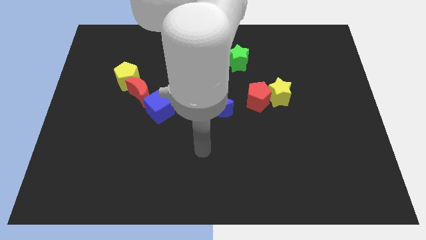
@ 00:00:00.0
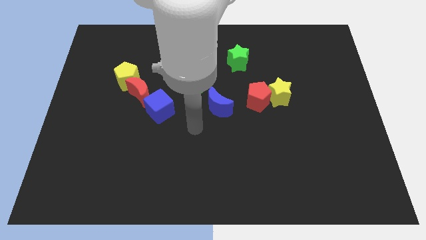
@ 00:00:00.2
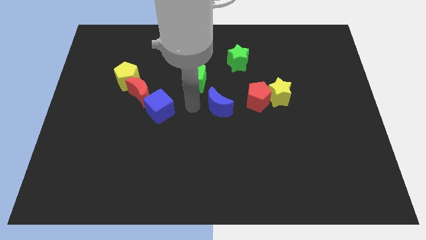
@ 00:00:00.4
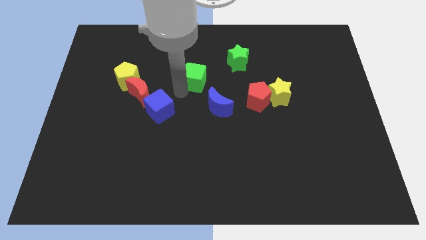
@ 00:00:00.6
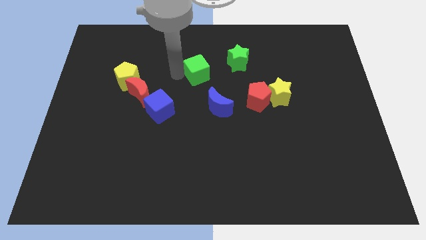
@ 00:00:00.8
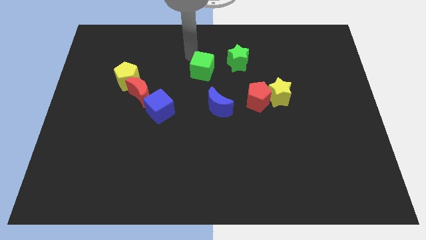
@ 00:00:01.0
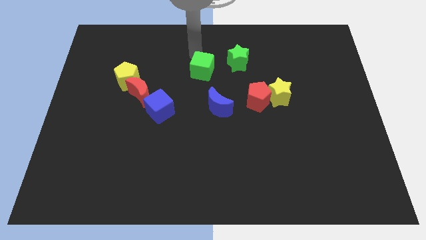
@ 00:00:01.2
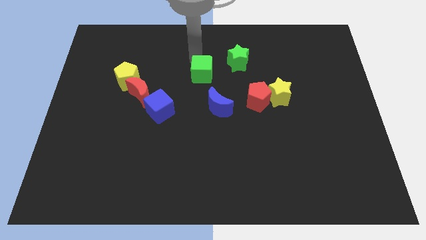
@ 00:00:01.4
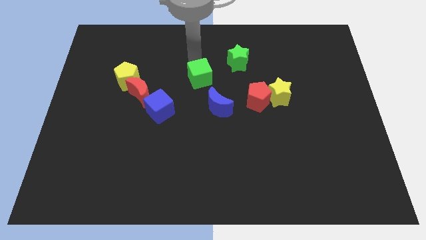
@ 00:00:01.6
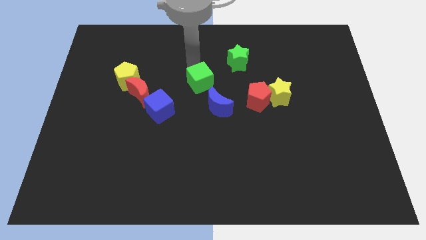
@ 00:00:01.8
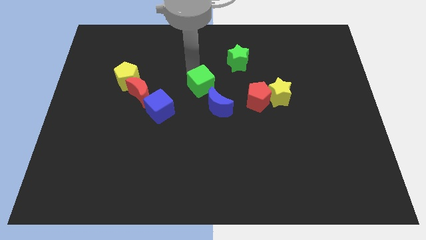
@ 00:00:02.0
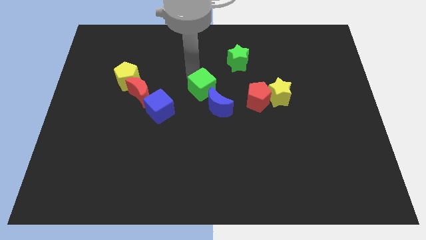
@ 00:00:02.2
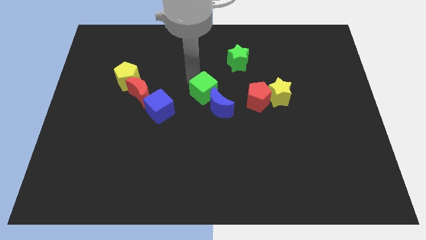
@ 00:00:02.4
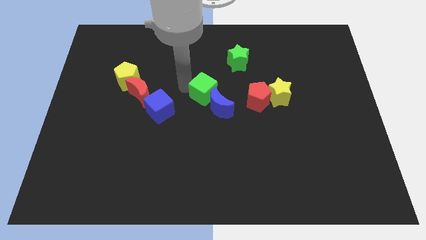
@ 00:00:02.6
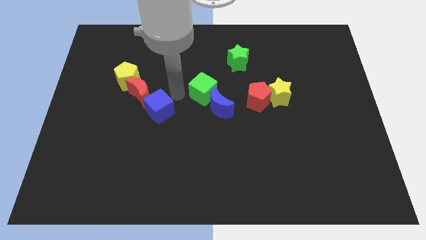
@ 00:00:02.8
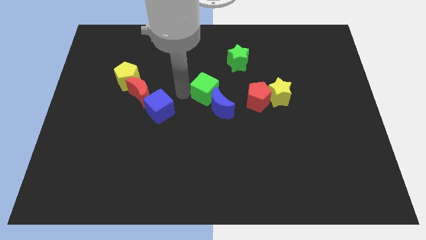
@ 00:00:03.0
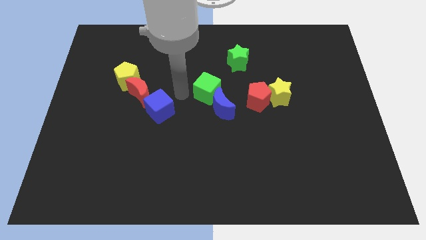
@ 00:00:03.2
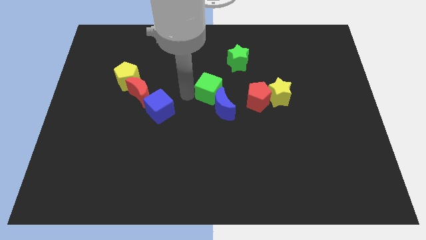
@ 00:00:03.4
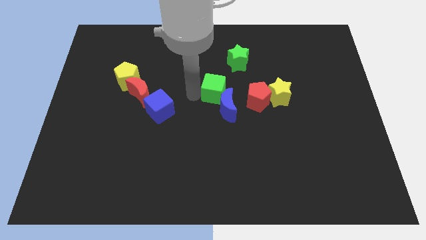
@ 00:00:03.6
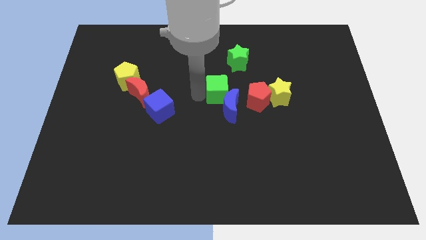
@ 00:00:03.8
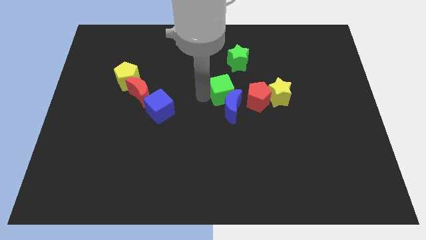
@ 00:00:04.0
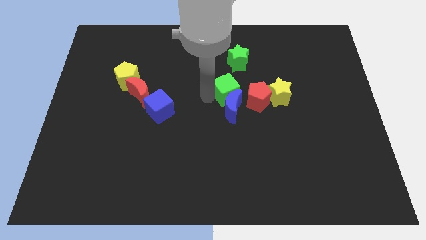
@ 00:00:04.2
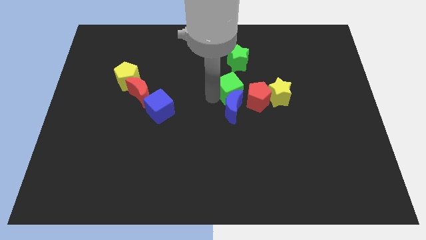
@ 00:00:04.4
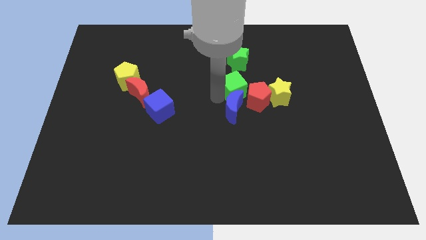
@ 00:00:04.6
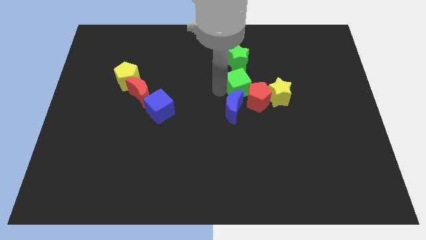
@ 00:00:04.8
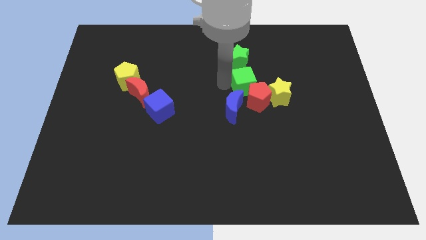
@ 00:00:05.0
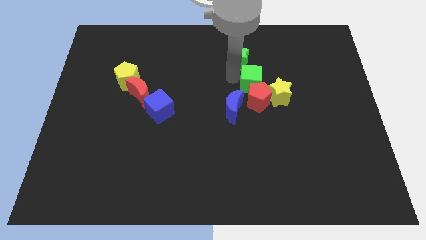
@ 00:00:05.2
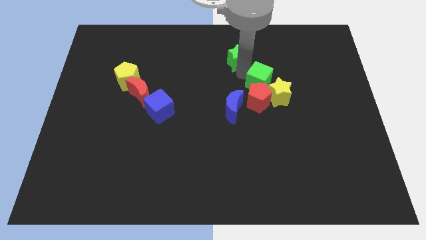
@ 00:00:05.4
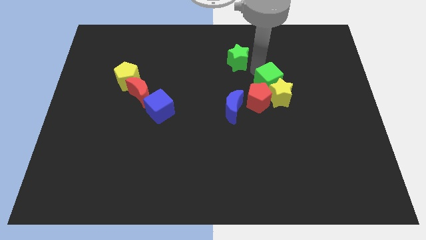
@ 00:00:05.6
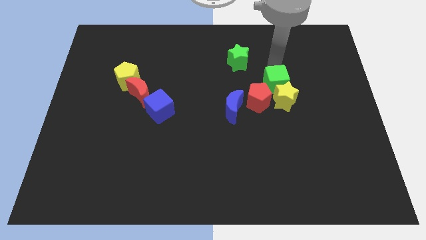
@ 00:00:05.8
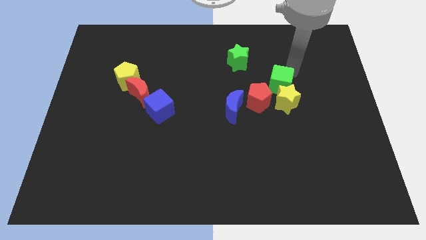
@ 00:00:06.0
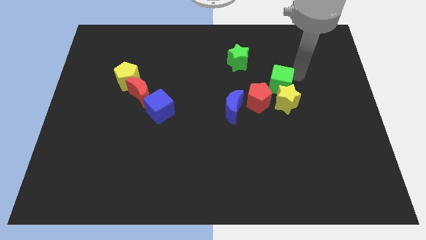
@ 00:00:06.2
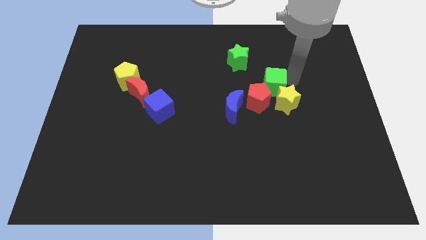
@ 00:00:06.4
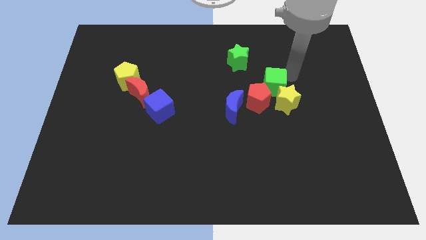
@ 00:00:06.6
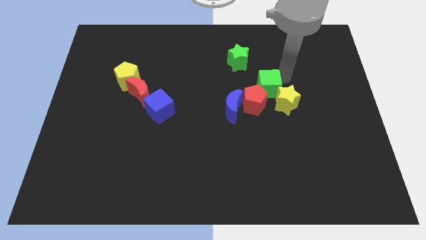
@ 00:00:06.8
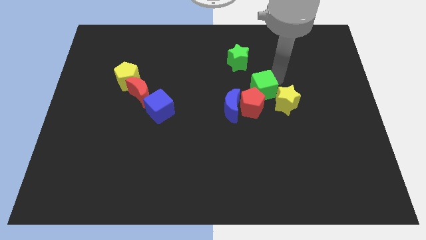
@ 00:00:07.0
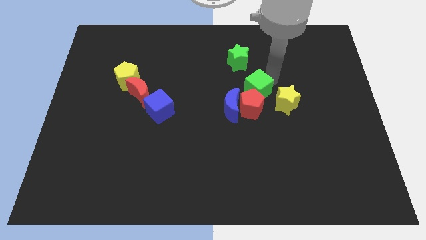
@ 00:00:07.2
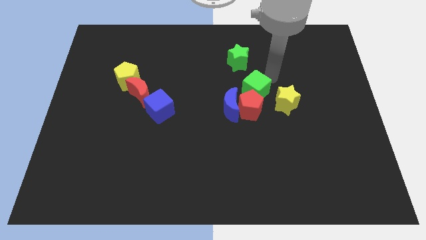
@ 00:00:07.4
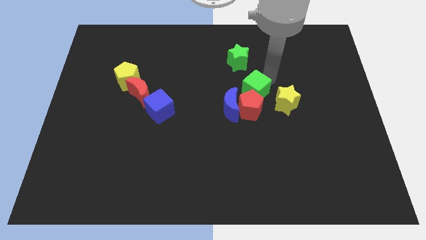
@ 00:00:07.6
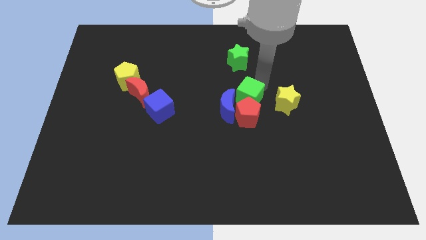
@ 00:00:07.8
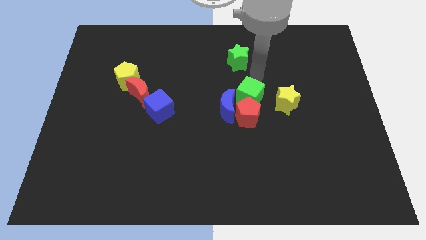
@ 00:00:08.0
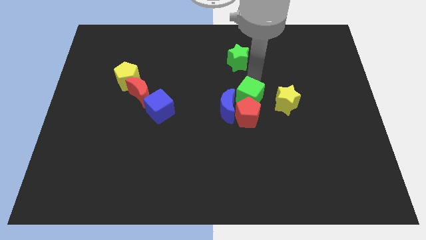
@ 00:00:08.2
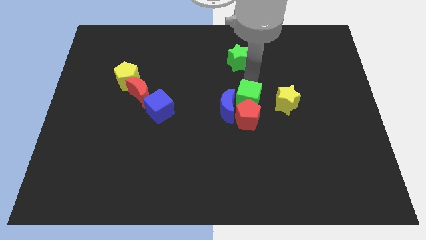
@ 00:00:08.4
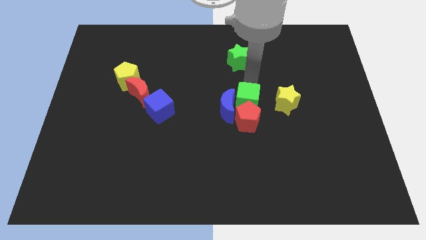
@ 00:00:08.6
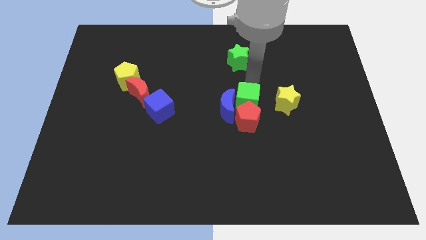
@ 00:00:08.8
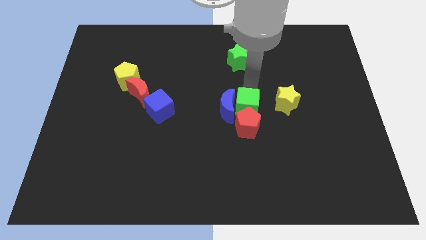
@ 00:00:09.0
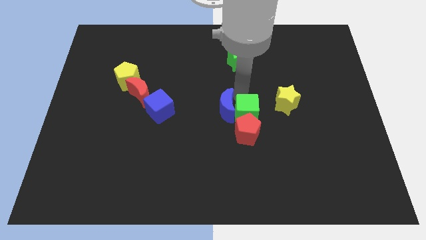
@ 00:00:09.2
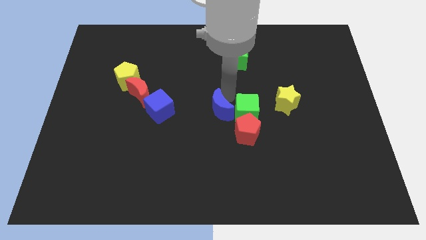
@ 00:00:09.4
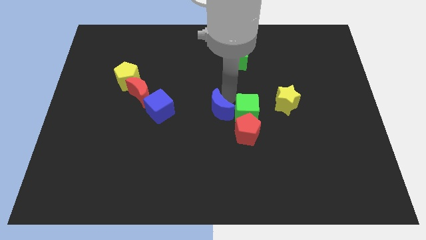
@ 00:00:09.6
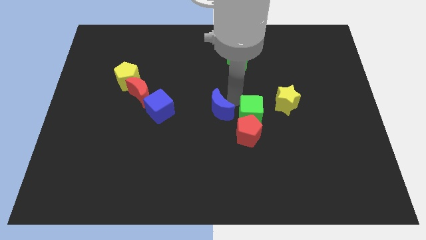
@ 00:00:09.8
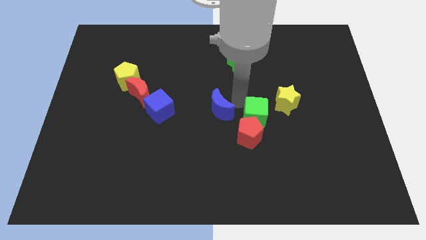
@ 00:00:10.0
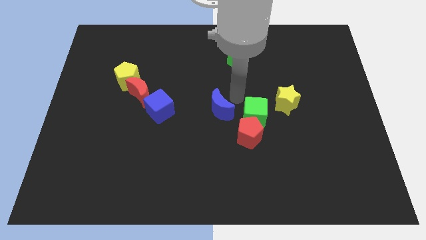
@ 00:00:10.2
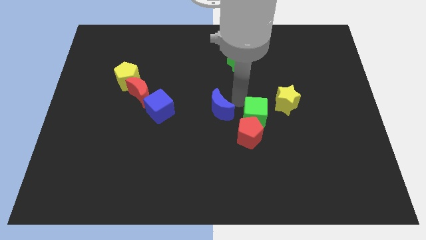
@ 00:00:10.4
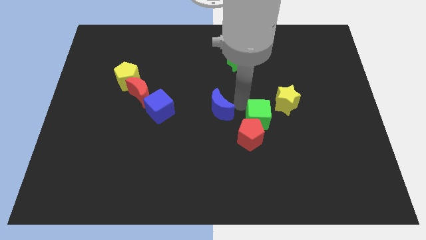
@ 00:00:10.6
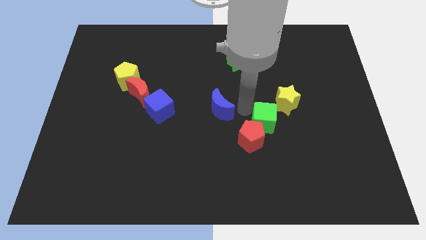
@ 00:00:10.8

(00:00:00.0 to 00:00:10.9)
move the green cube down and then to the right

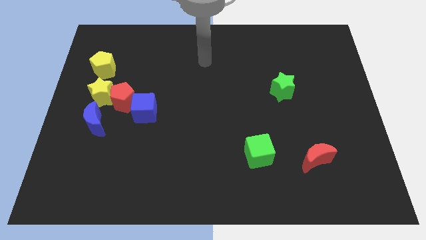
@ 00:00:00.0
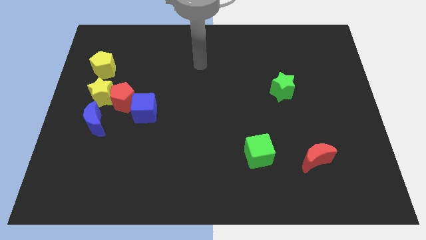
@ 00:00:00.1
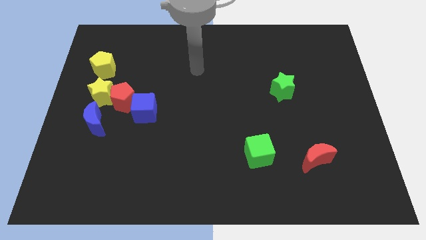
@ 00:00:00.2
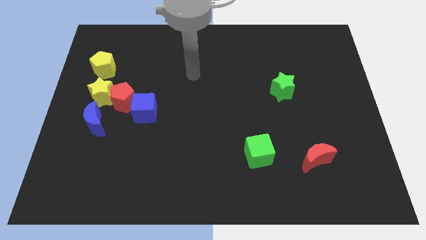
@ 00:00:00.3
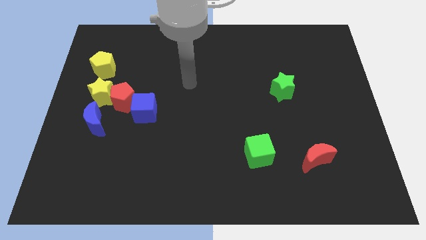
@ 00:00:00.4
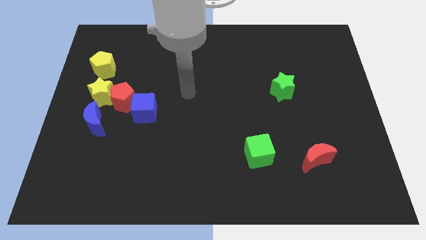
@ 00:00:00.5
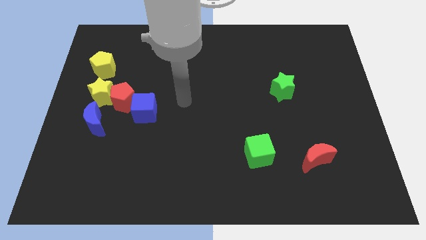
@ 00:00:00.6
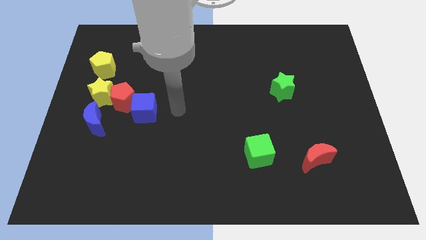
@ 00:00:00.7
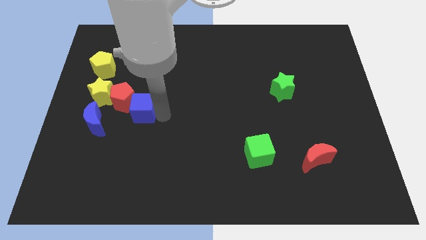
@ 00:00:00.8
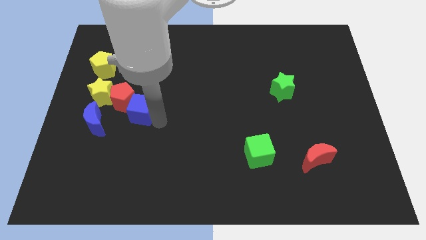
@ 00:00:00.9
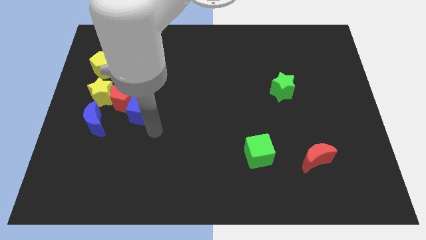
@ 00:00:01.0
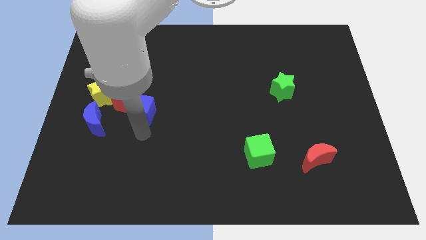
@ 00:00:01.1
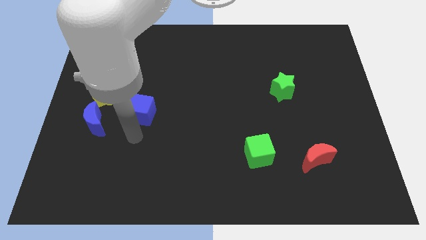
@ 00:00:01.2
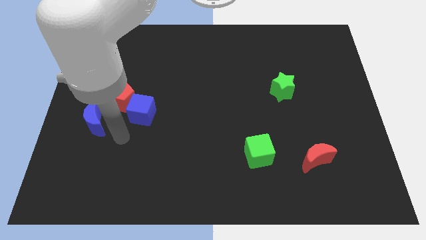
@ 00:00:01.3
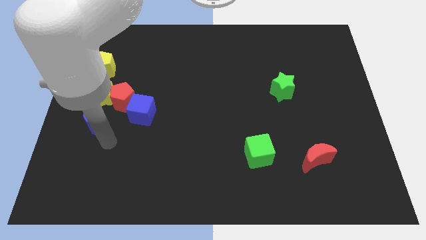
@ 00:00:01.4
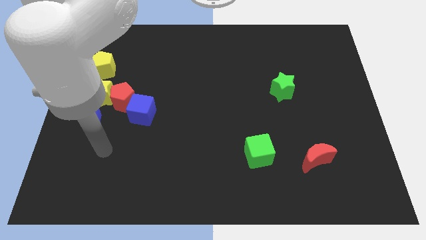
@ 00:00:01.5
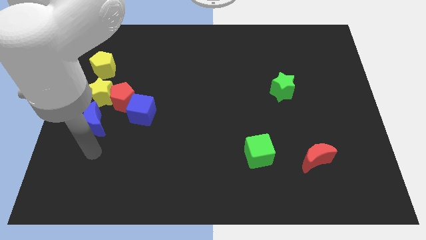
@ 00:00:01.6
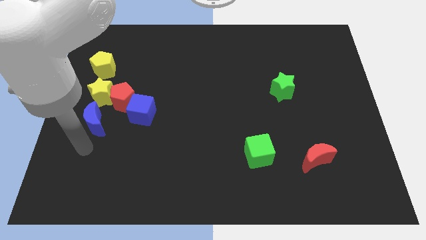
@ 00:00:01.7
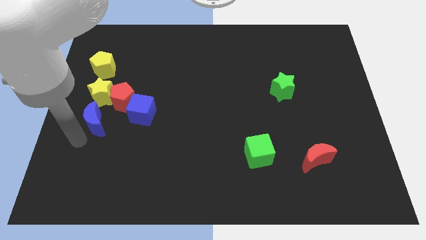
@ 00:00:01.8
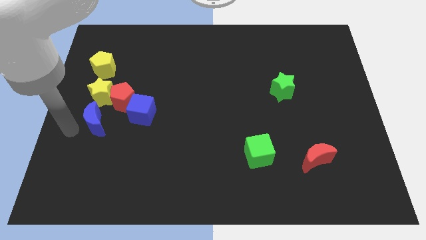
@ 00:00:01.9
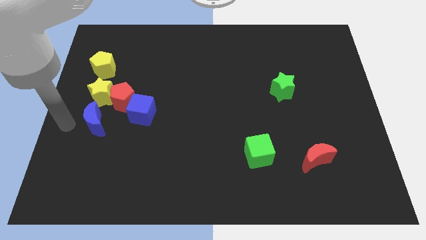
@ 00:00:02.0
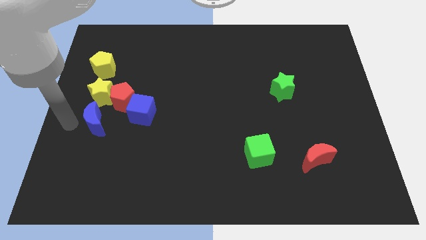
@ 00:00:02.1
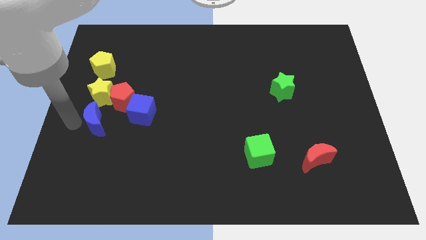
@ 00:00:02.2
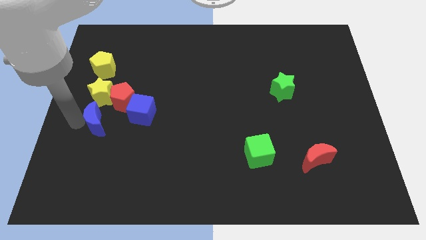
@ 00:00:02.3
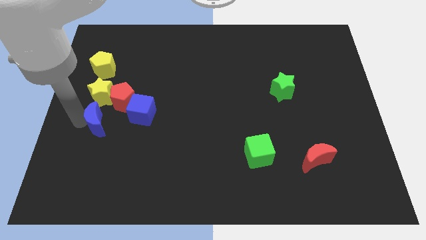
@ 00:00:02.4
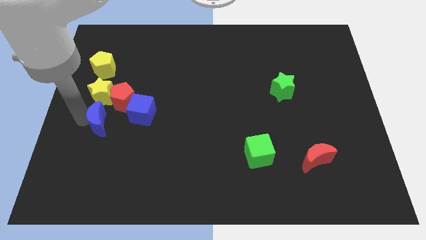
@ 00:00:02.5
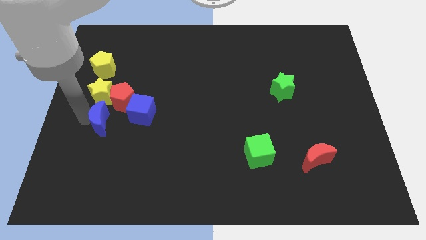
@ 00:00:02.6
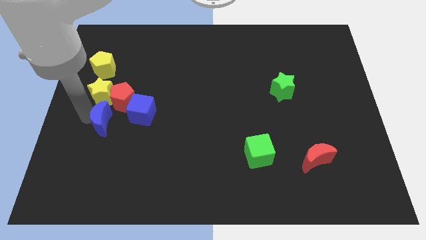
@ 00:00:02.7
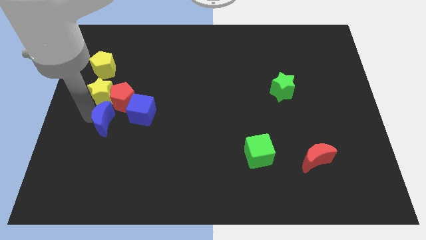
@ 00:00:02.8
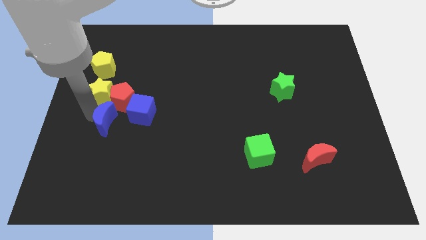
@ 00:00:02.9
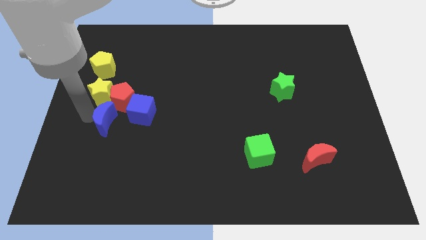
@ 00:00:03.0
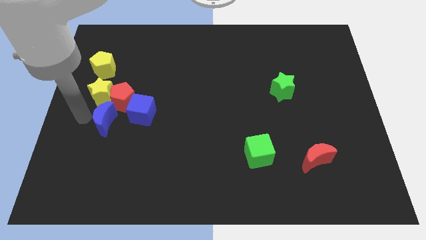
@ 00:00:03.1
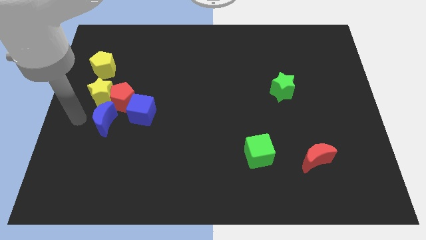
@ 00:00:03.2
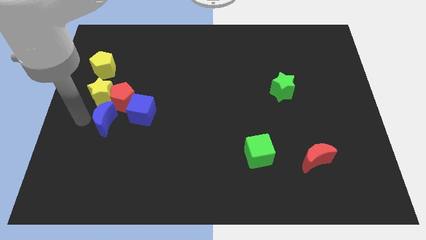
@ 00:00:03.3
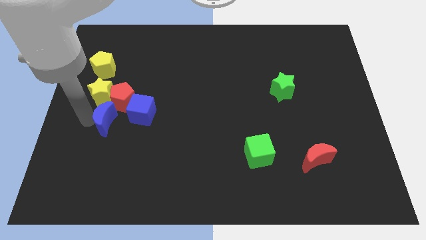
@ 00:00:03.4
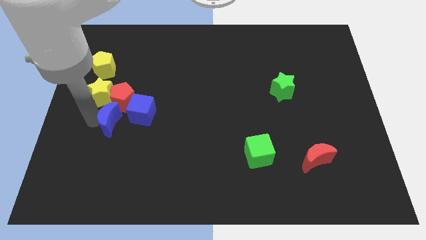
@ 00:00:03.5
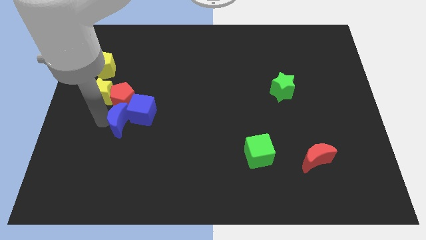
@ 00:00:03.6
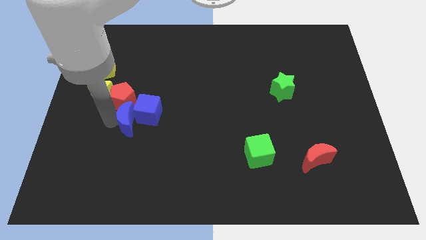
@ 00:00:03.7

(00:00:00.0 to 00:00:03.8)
move the blue moon to the right a bit
